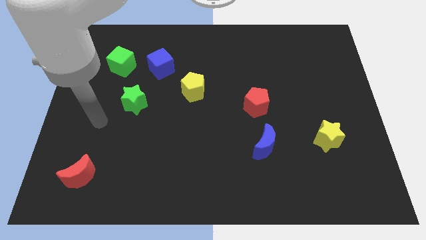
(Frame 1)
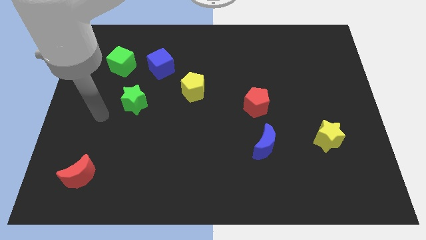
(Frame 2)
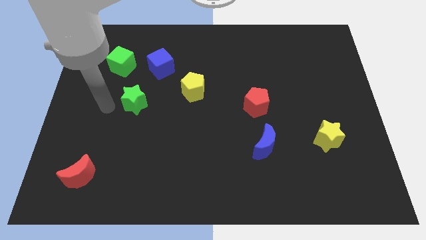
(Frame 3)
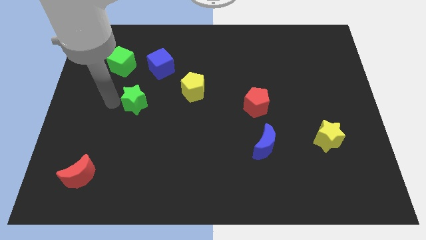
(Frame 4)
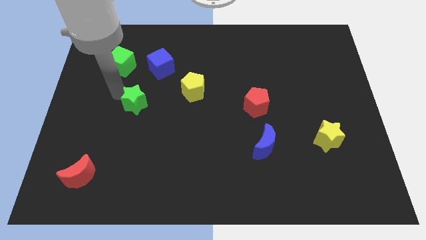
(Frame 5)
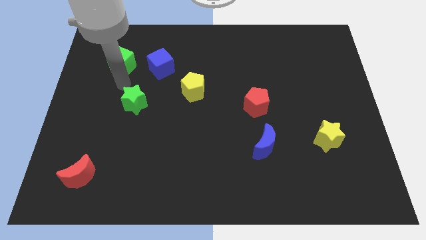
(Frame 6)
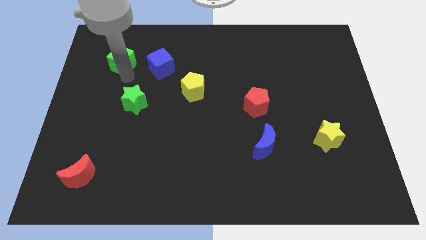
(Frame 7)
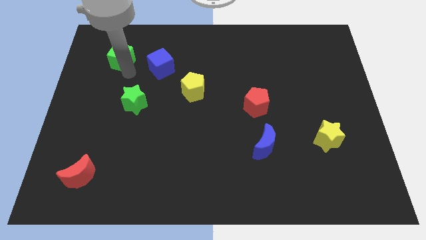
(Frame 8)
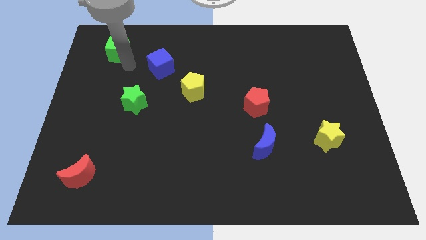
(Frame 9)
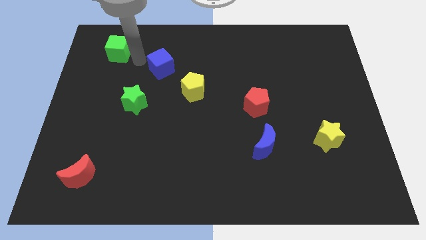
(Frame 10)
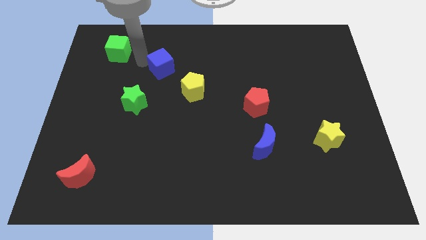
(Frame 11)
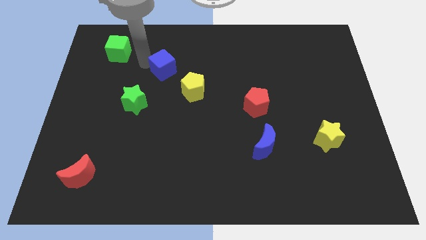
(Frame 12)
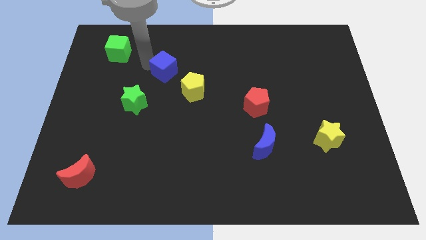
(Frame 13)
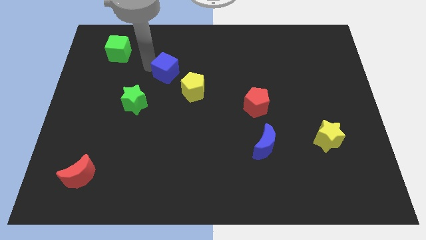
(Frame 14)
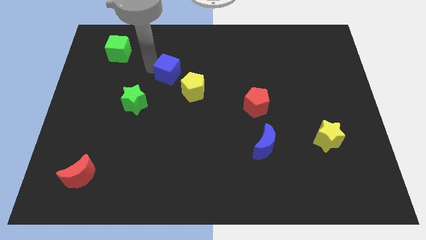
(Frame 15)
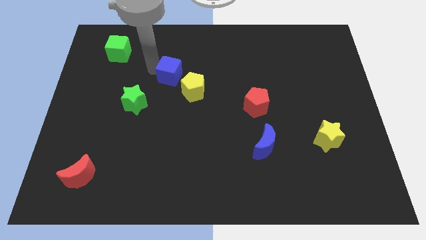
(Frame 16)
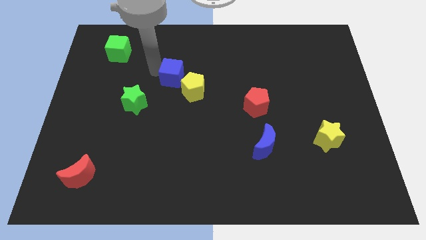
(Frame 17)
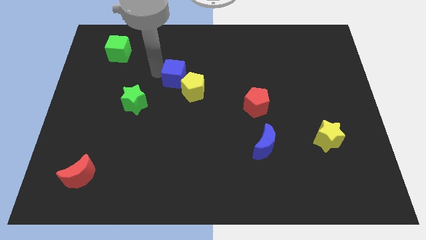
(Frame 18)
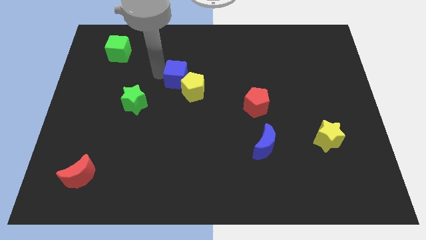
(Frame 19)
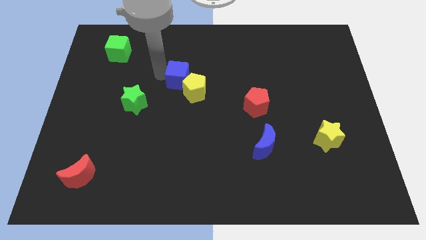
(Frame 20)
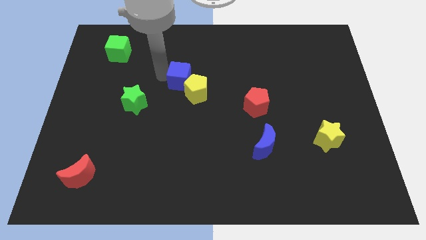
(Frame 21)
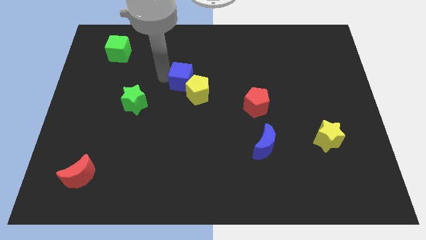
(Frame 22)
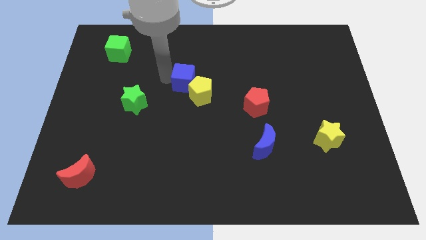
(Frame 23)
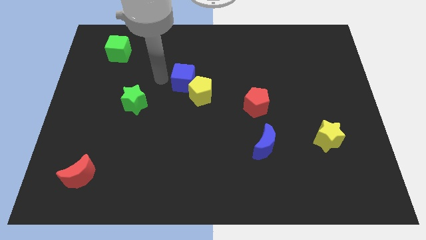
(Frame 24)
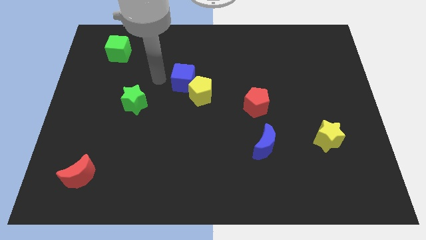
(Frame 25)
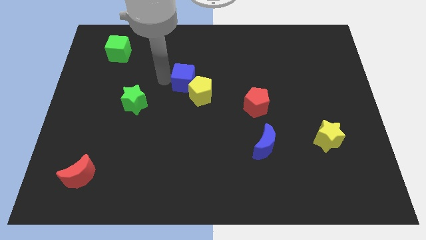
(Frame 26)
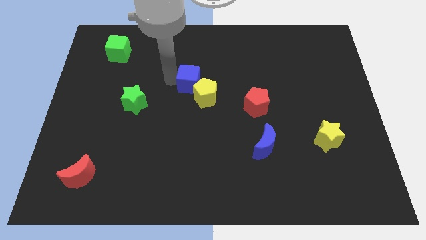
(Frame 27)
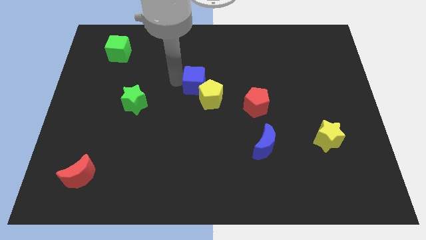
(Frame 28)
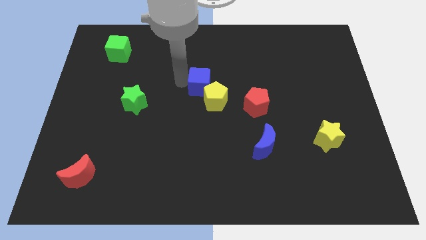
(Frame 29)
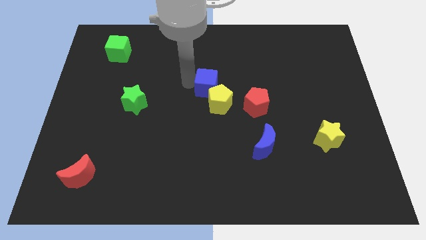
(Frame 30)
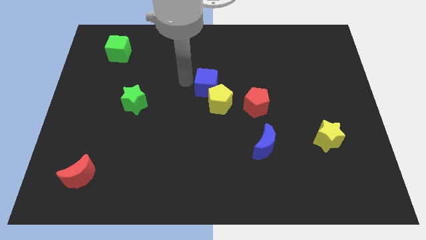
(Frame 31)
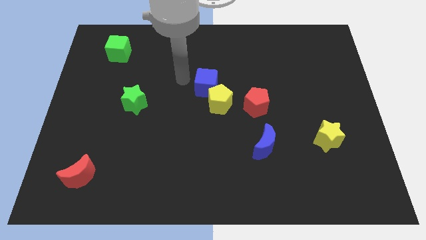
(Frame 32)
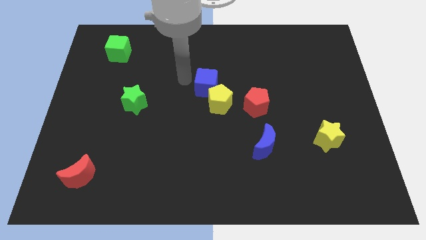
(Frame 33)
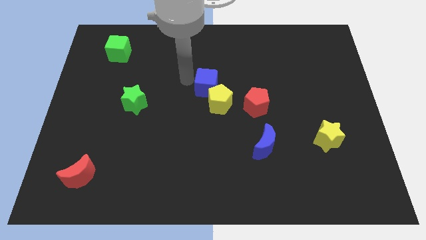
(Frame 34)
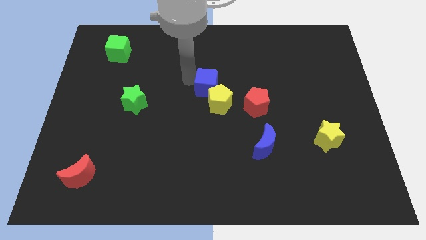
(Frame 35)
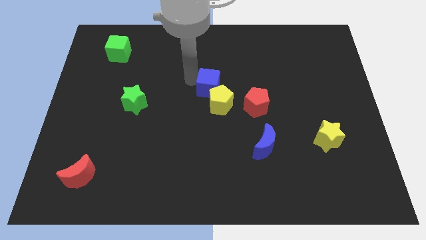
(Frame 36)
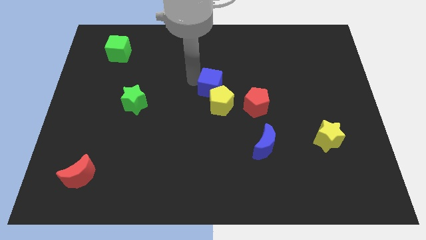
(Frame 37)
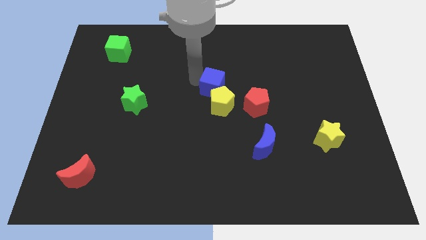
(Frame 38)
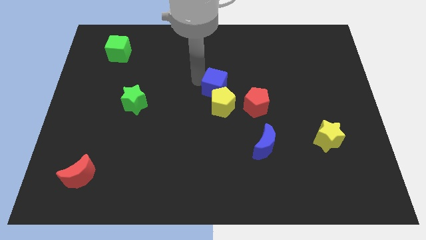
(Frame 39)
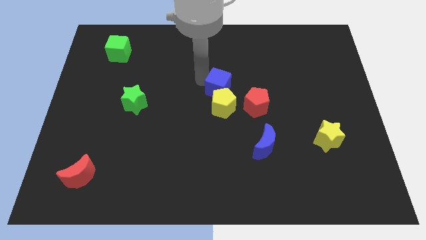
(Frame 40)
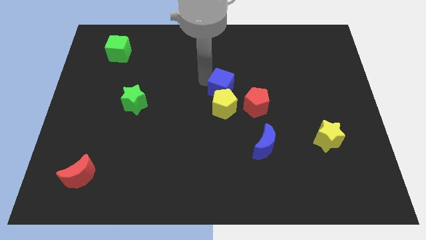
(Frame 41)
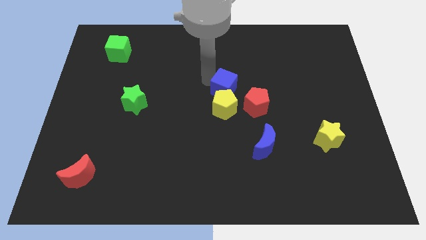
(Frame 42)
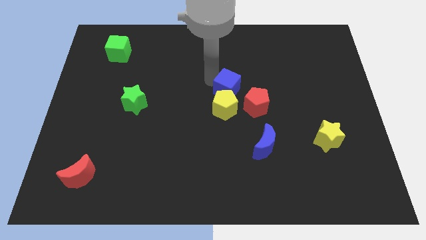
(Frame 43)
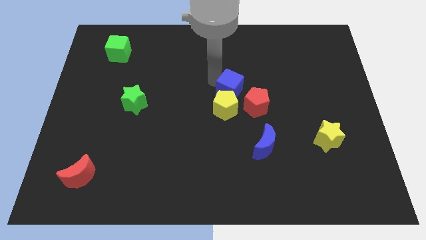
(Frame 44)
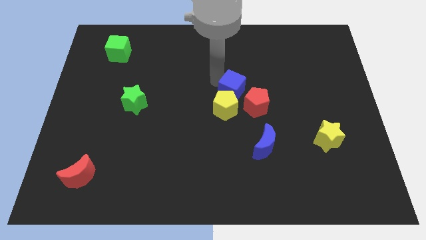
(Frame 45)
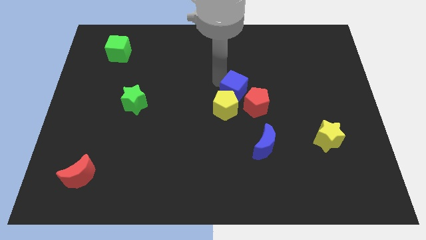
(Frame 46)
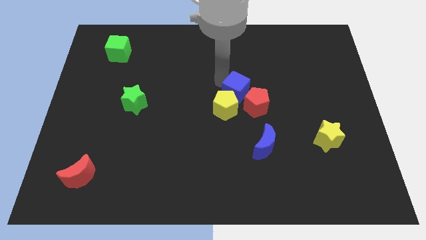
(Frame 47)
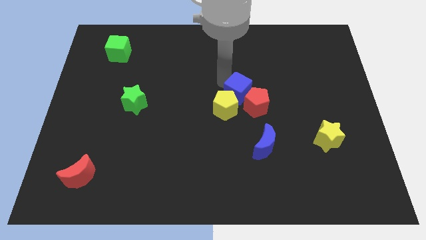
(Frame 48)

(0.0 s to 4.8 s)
slide the blue cube next to the red pentagon

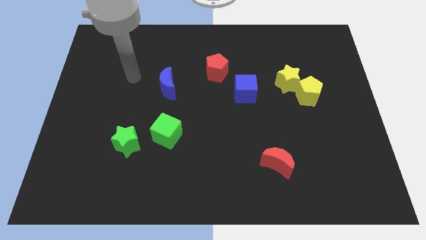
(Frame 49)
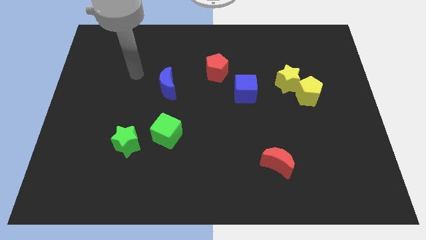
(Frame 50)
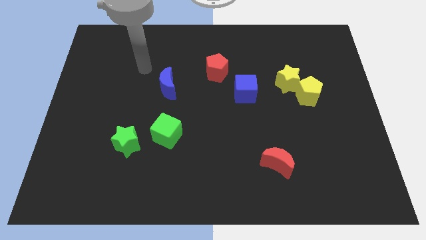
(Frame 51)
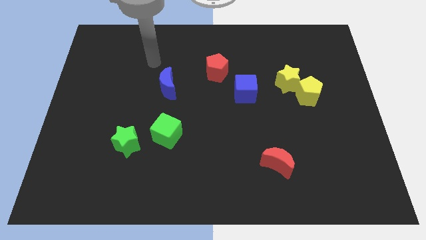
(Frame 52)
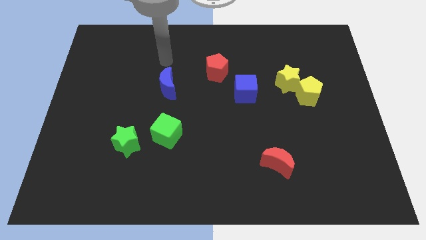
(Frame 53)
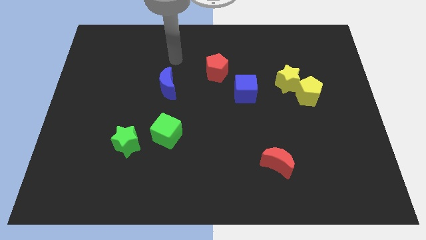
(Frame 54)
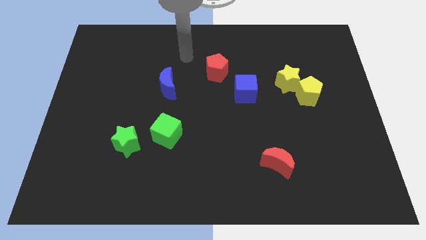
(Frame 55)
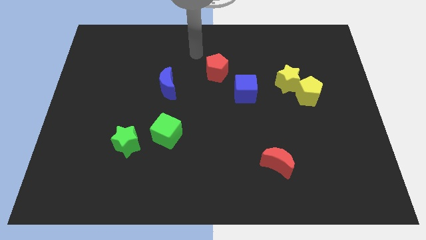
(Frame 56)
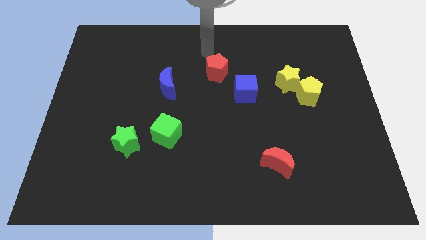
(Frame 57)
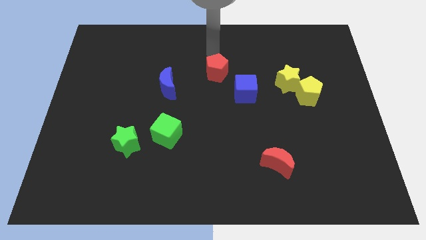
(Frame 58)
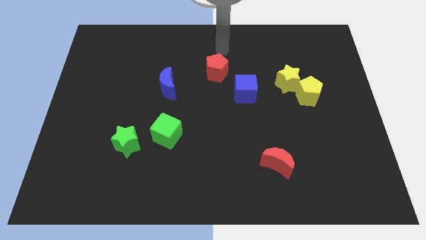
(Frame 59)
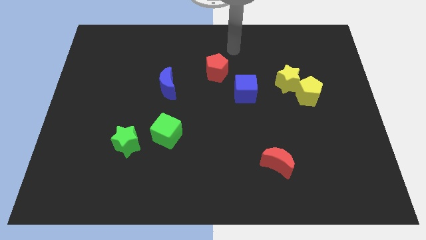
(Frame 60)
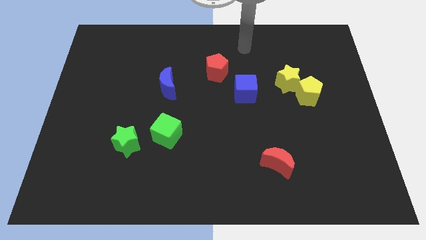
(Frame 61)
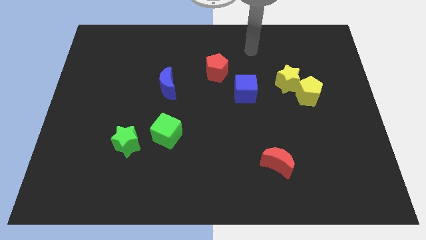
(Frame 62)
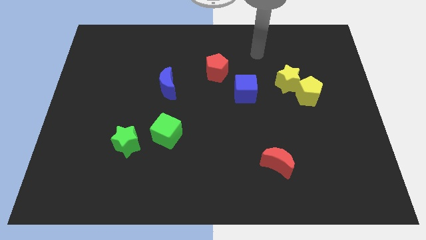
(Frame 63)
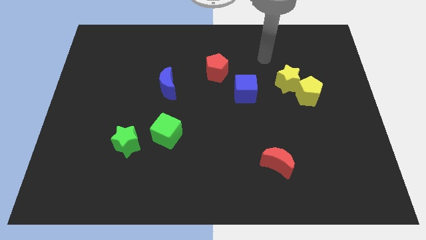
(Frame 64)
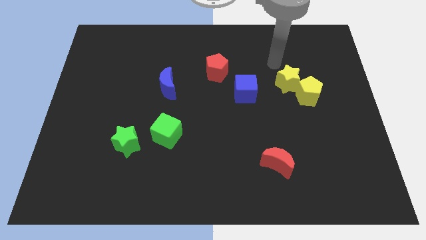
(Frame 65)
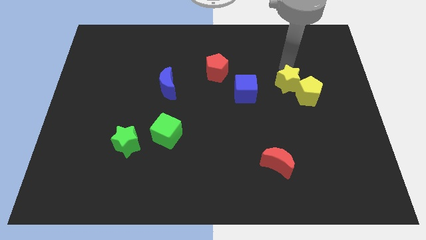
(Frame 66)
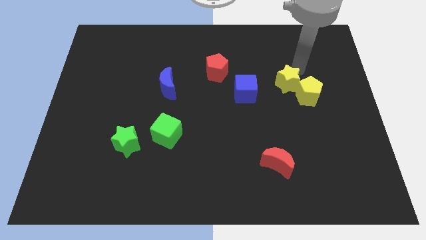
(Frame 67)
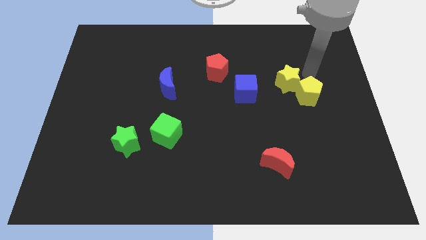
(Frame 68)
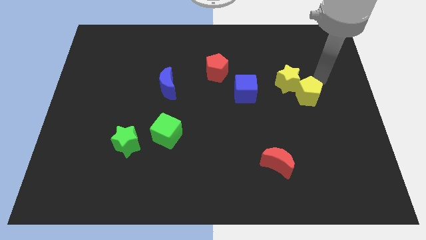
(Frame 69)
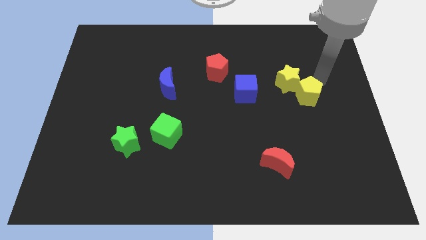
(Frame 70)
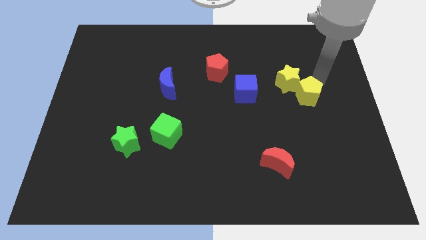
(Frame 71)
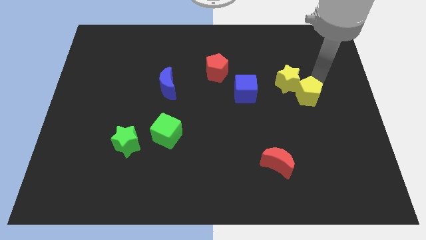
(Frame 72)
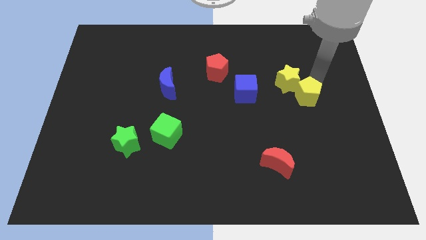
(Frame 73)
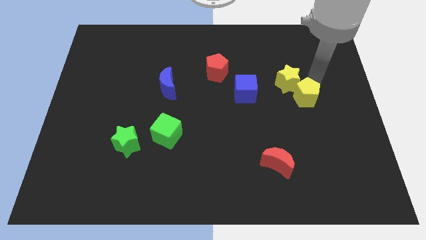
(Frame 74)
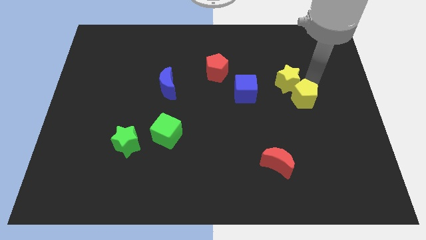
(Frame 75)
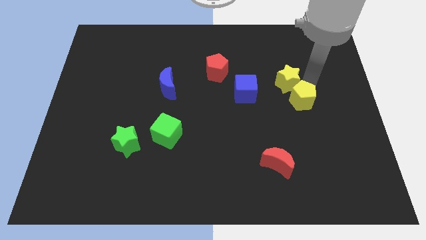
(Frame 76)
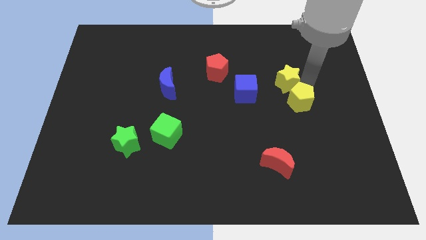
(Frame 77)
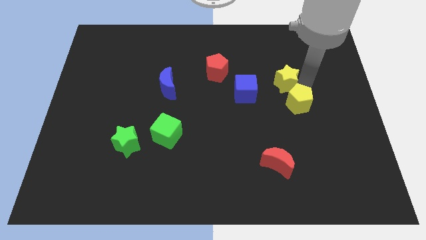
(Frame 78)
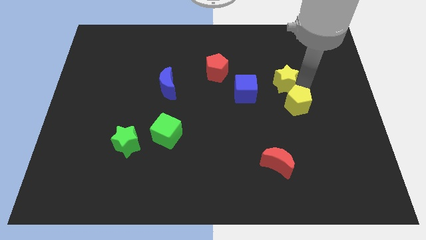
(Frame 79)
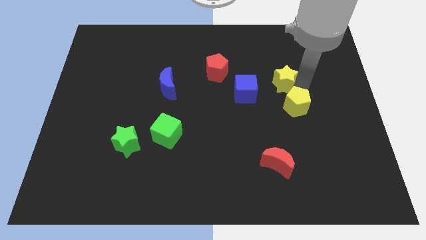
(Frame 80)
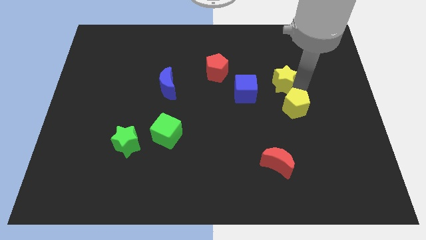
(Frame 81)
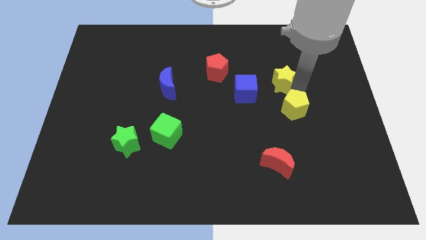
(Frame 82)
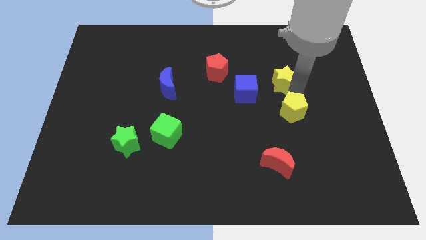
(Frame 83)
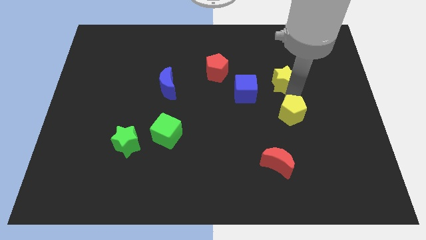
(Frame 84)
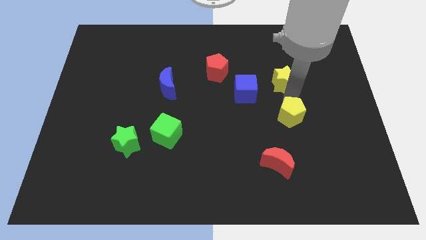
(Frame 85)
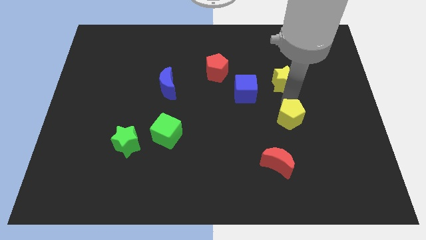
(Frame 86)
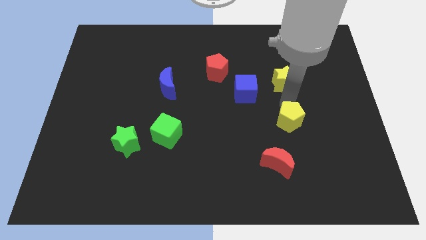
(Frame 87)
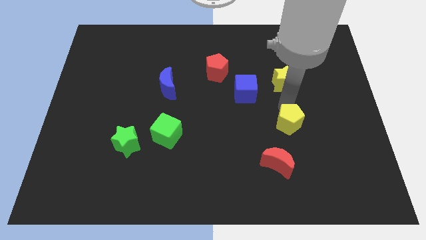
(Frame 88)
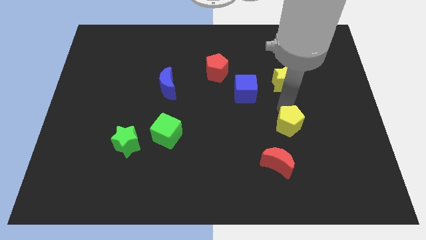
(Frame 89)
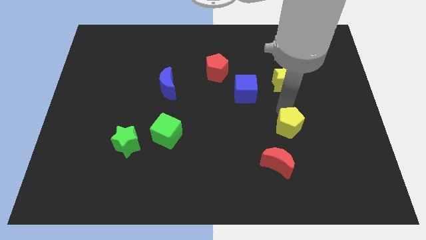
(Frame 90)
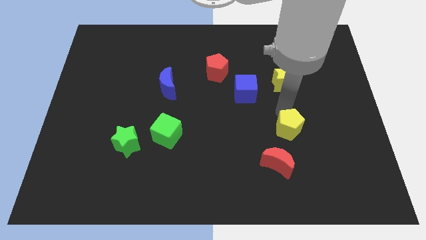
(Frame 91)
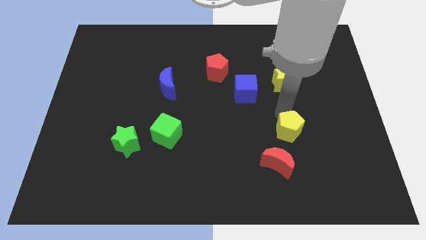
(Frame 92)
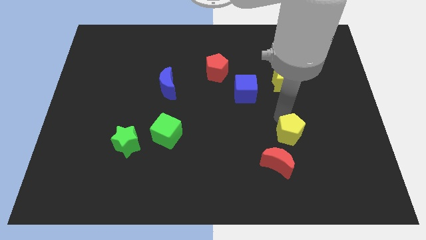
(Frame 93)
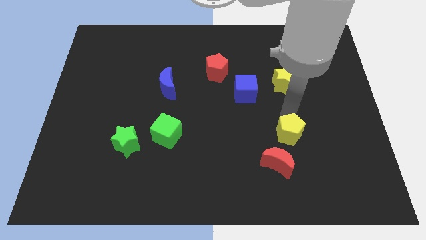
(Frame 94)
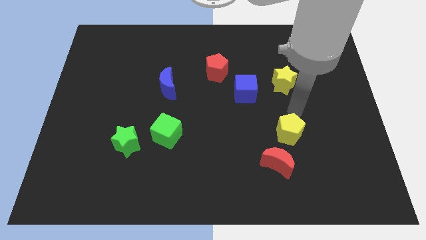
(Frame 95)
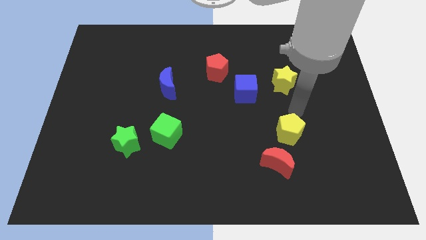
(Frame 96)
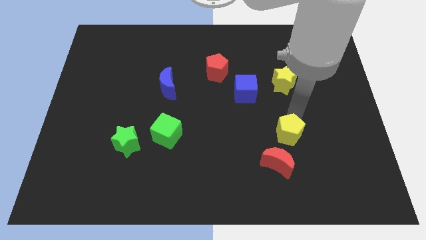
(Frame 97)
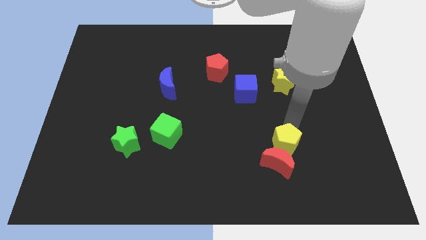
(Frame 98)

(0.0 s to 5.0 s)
slide the yellow pentagon next to the red moon
